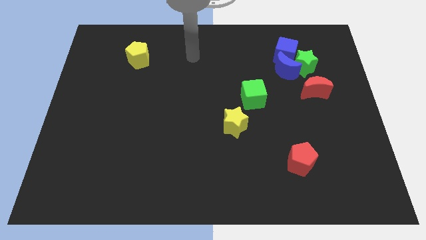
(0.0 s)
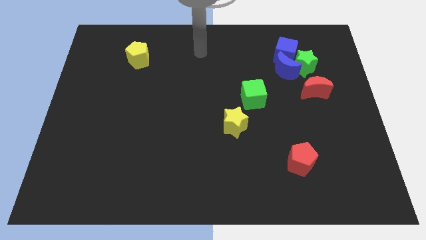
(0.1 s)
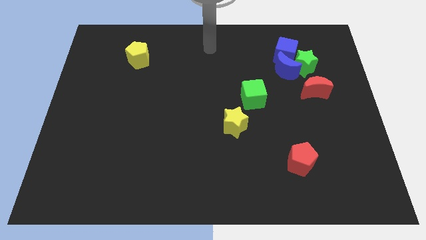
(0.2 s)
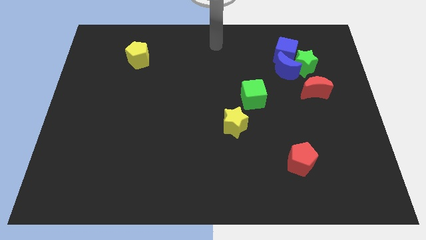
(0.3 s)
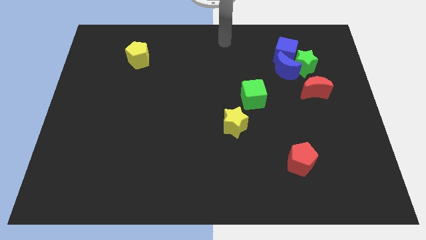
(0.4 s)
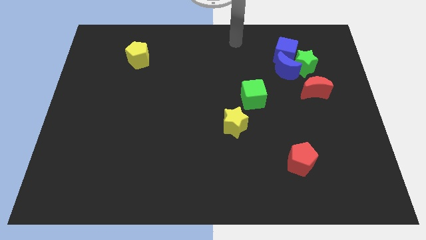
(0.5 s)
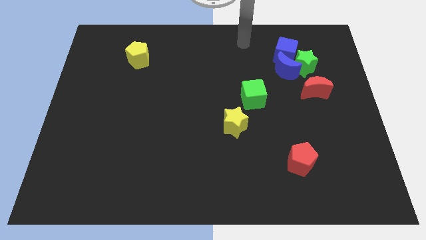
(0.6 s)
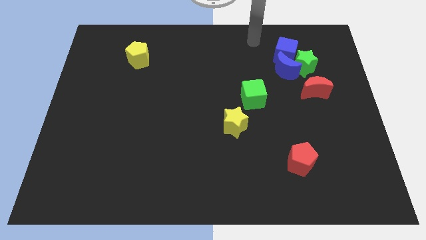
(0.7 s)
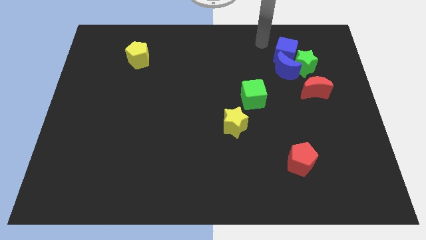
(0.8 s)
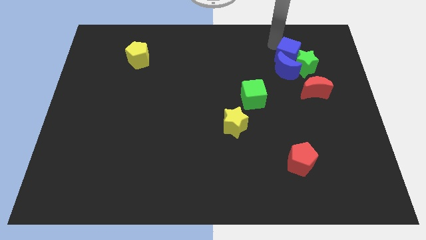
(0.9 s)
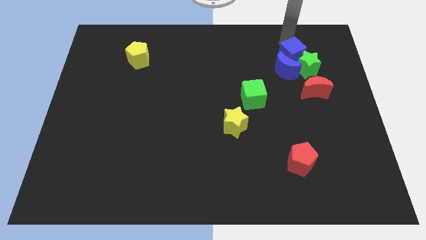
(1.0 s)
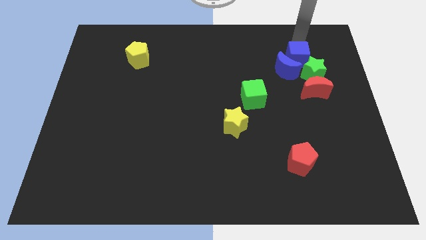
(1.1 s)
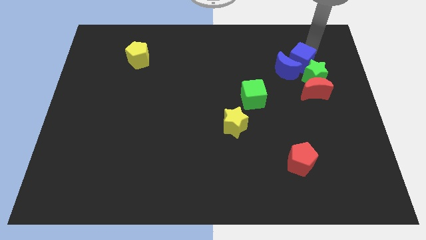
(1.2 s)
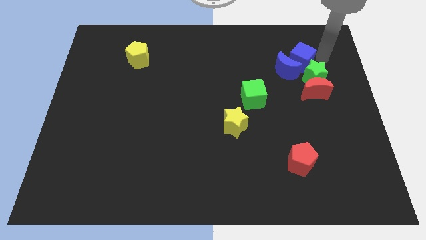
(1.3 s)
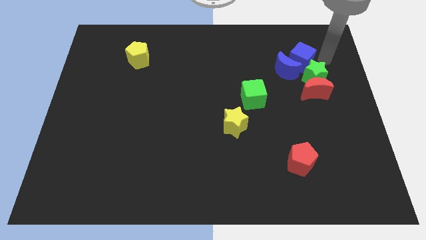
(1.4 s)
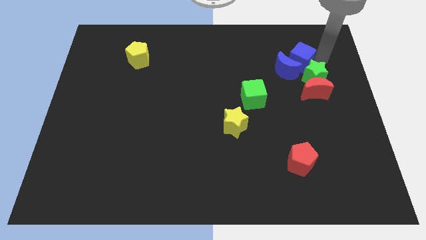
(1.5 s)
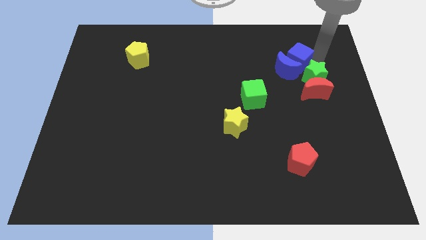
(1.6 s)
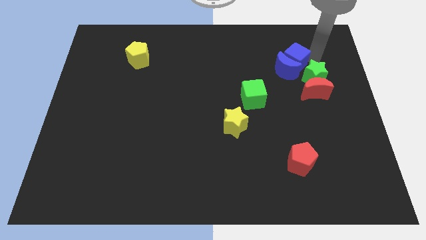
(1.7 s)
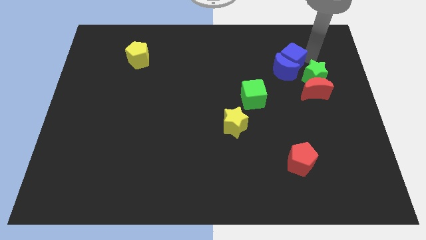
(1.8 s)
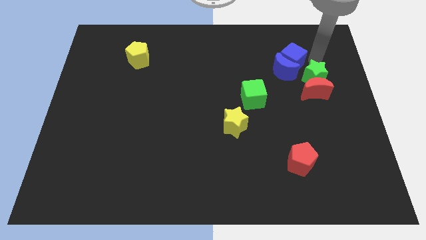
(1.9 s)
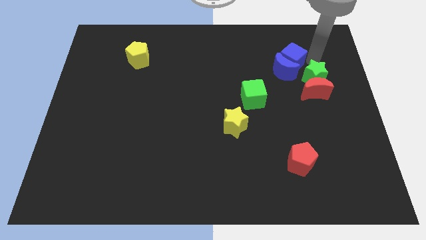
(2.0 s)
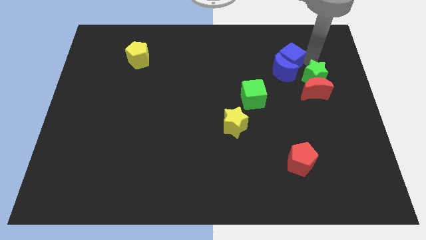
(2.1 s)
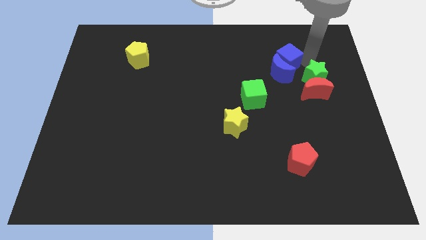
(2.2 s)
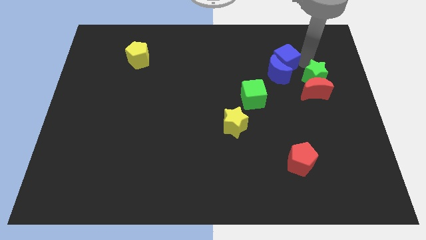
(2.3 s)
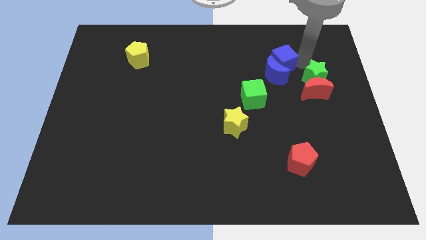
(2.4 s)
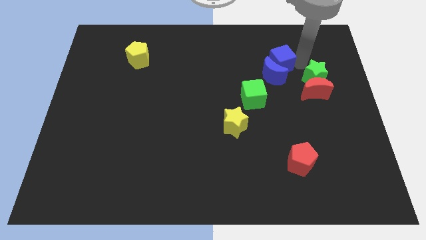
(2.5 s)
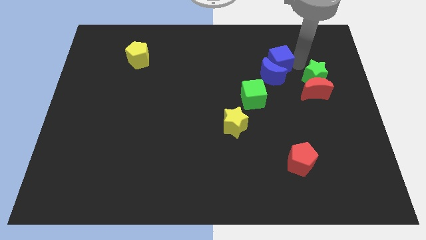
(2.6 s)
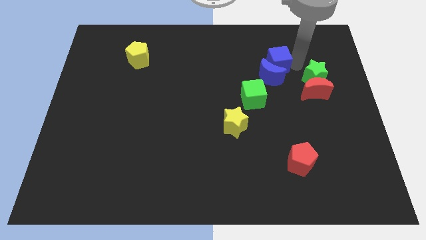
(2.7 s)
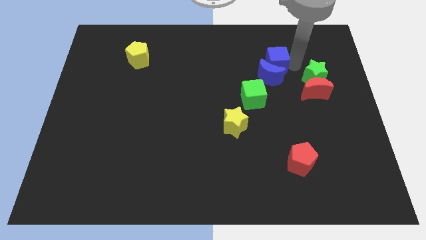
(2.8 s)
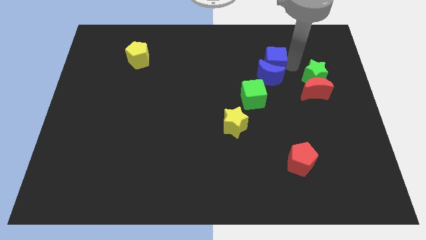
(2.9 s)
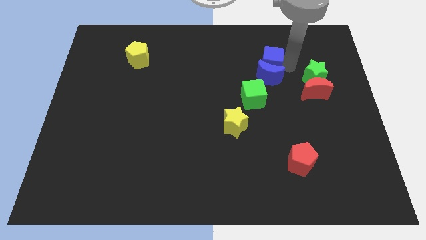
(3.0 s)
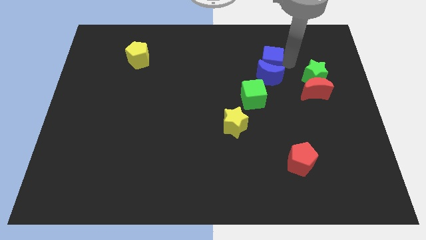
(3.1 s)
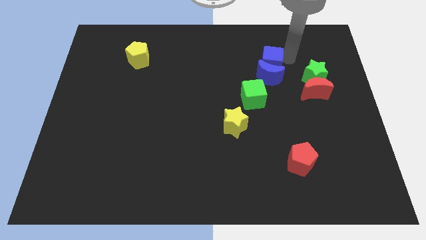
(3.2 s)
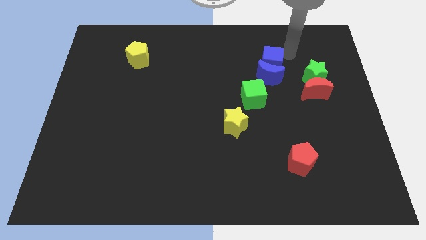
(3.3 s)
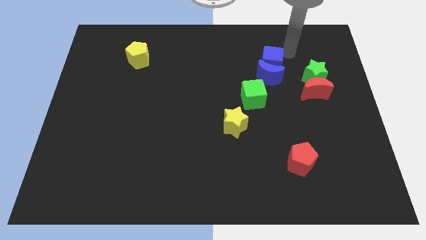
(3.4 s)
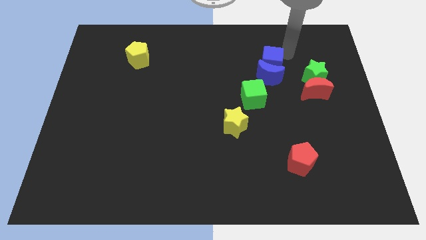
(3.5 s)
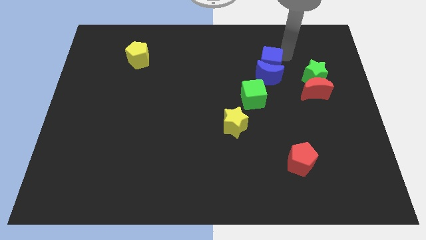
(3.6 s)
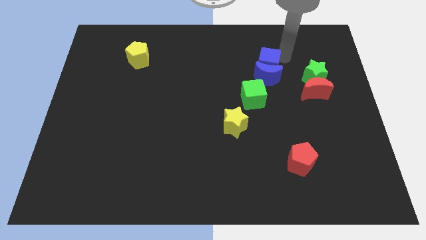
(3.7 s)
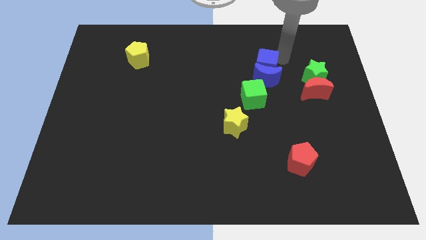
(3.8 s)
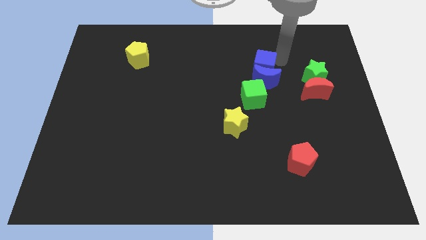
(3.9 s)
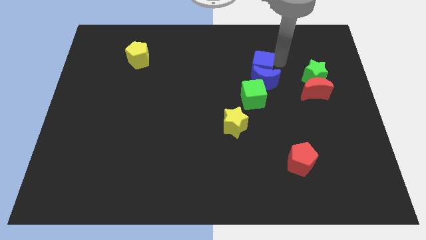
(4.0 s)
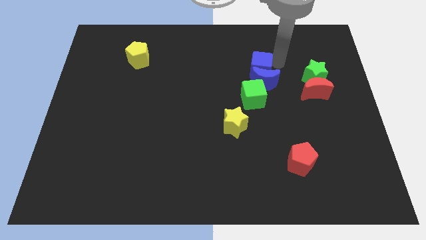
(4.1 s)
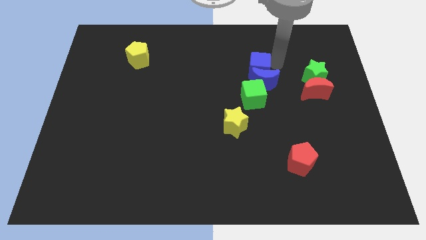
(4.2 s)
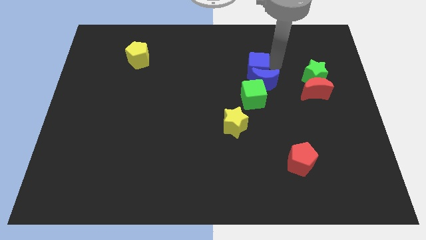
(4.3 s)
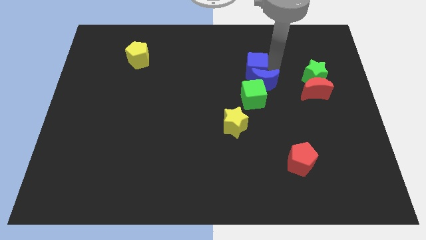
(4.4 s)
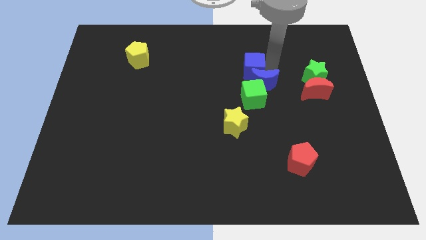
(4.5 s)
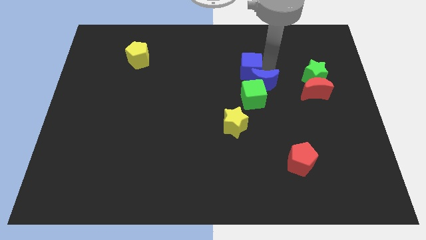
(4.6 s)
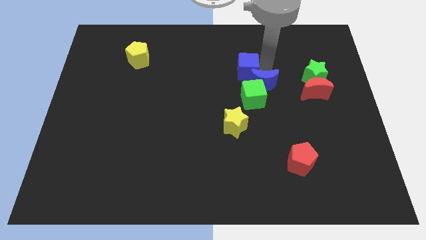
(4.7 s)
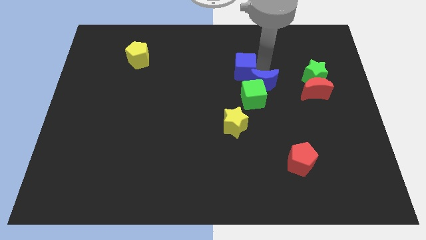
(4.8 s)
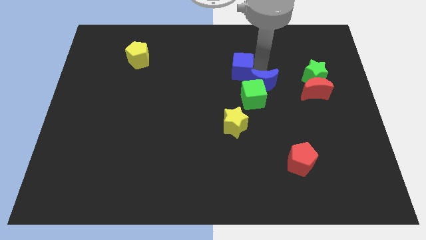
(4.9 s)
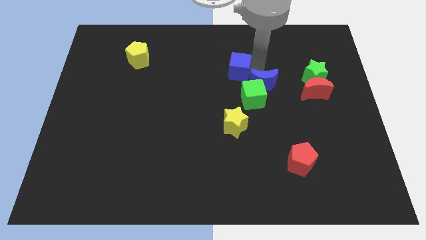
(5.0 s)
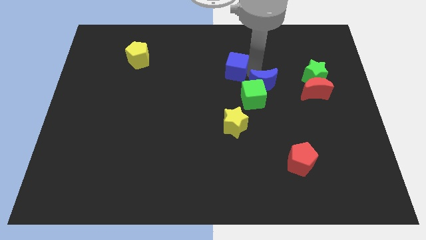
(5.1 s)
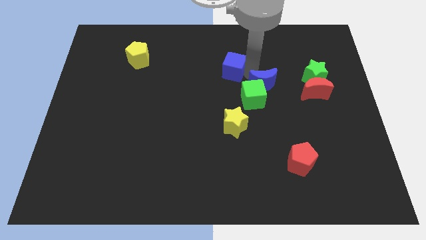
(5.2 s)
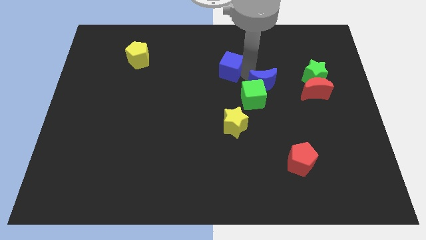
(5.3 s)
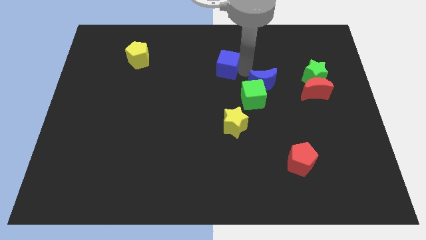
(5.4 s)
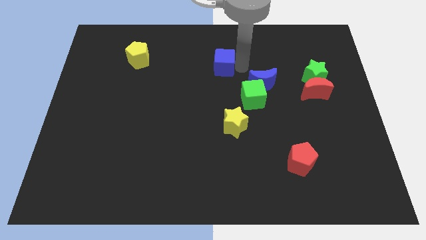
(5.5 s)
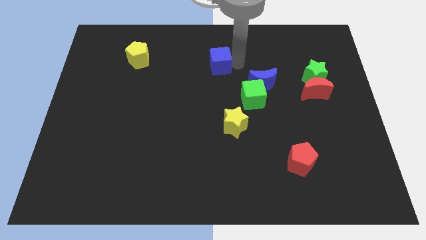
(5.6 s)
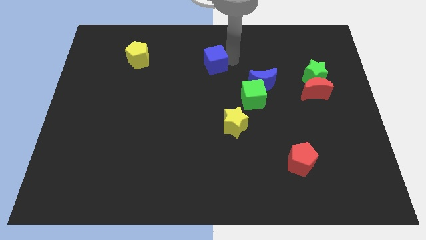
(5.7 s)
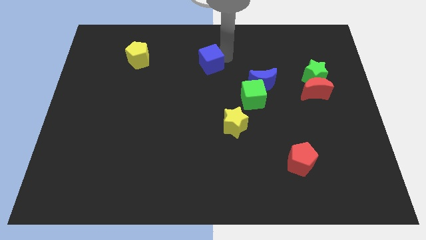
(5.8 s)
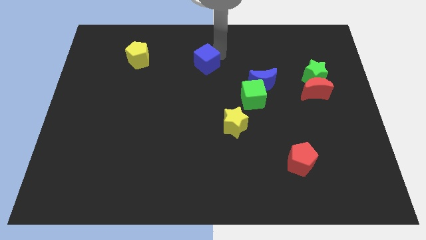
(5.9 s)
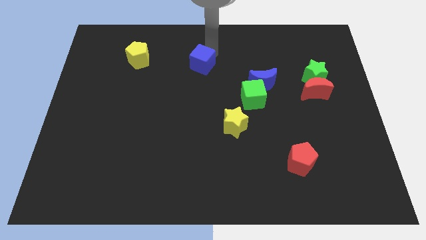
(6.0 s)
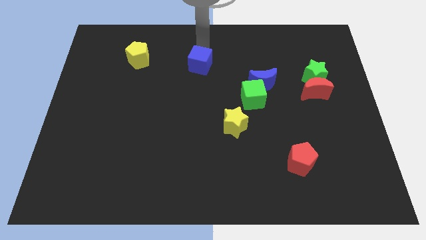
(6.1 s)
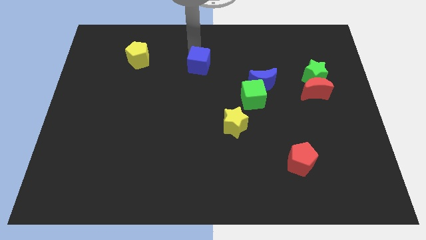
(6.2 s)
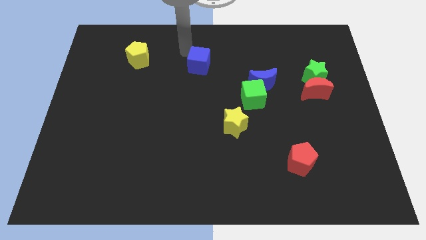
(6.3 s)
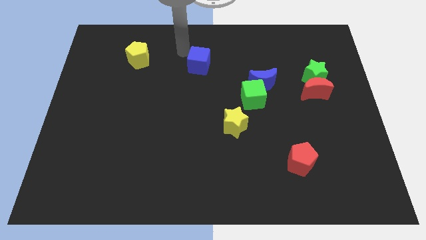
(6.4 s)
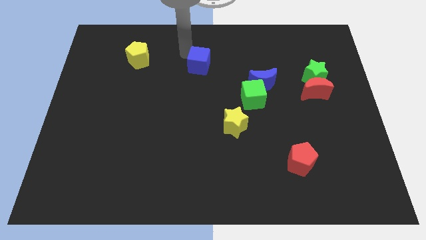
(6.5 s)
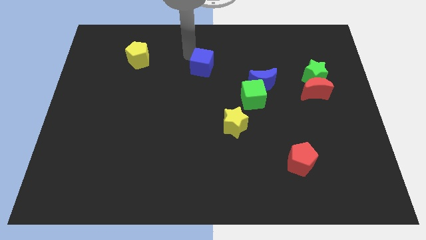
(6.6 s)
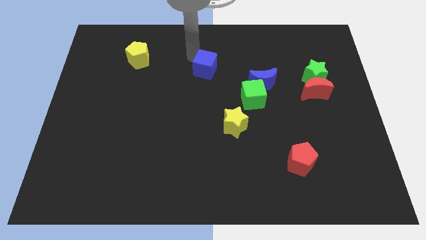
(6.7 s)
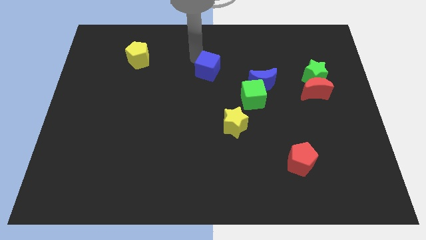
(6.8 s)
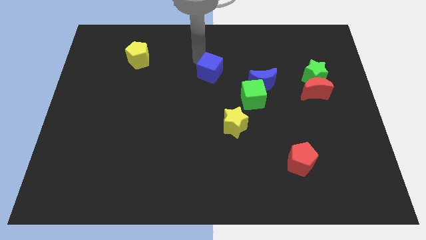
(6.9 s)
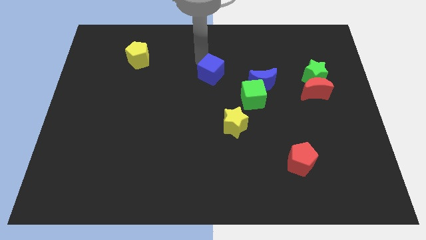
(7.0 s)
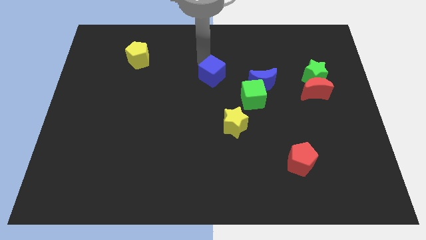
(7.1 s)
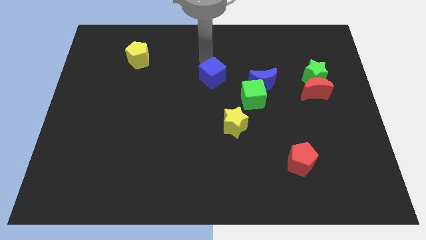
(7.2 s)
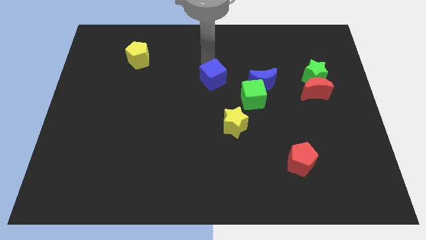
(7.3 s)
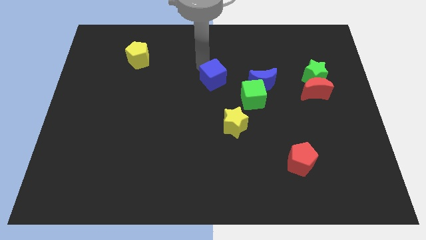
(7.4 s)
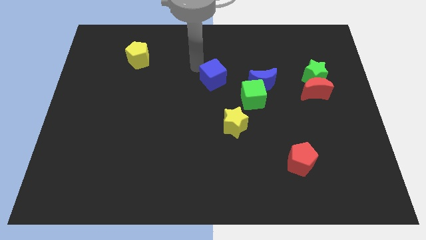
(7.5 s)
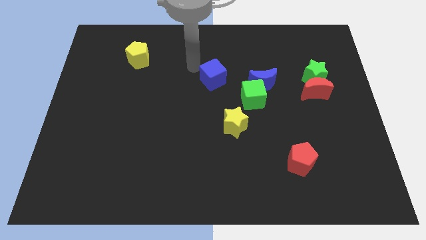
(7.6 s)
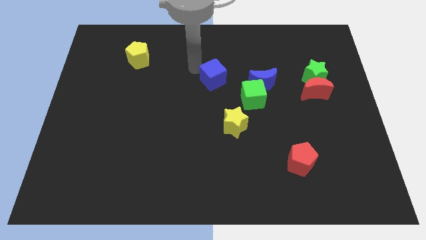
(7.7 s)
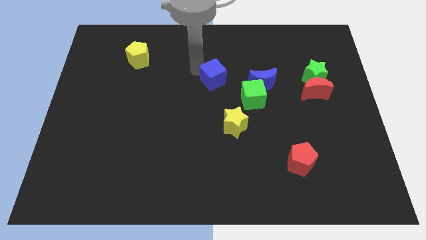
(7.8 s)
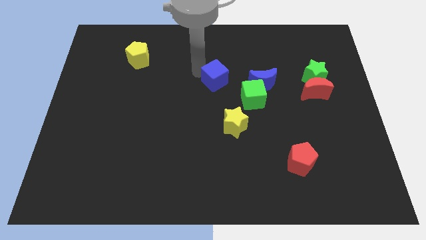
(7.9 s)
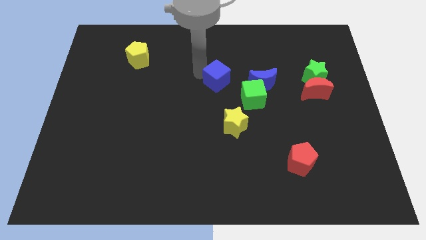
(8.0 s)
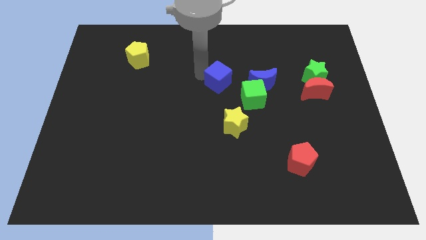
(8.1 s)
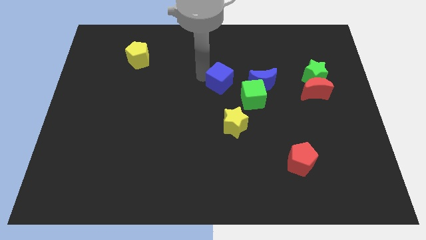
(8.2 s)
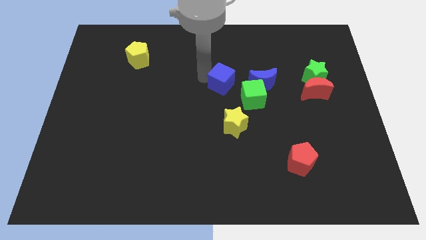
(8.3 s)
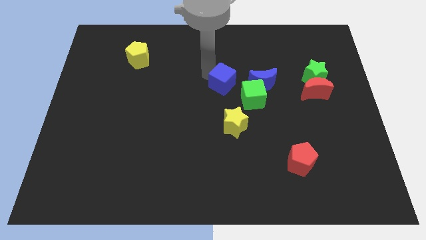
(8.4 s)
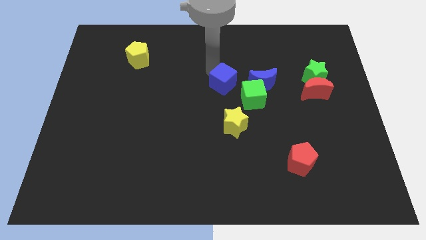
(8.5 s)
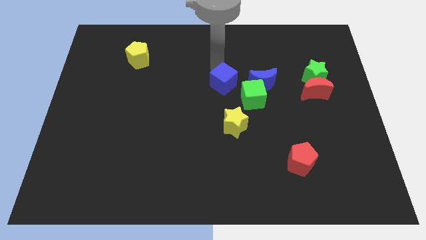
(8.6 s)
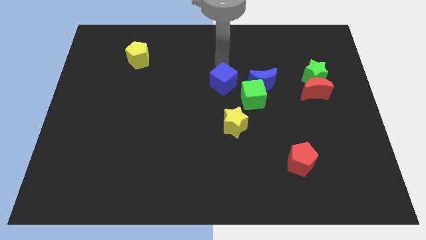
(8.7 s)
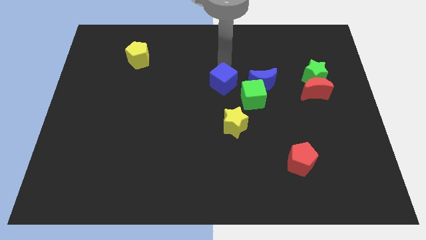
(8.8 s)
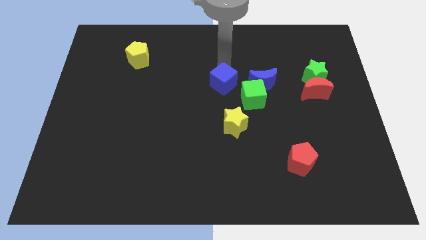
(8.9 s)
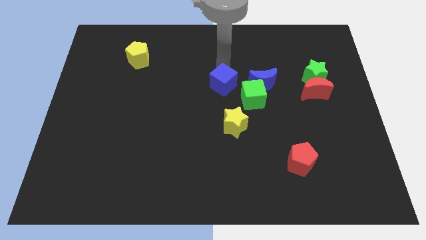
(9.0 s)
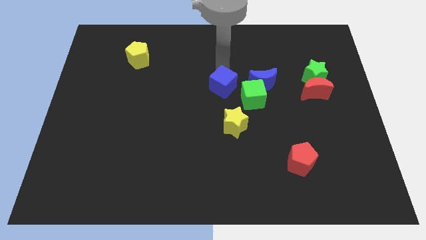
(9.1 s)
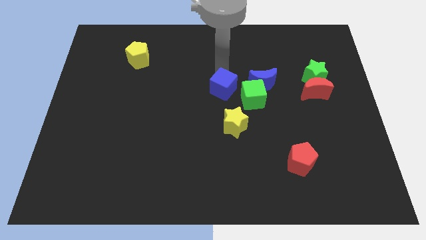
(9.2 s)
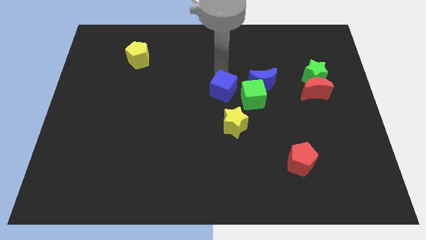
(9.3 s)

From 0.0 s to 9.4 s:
slide the blue cube down and to the left diagonally
